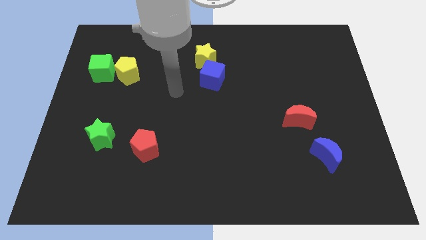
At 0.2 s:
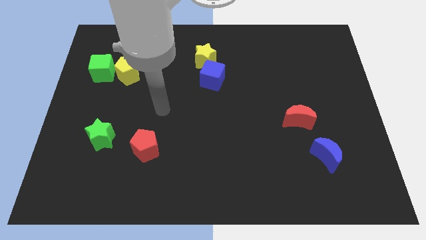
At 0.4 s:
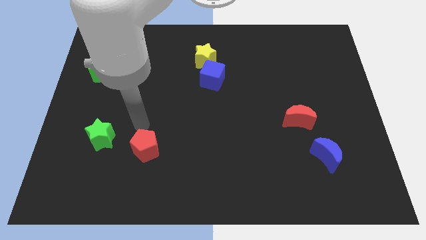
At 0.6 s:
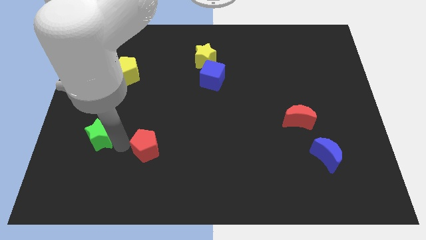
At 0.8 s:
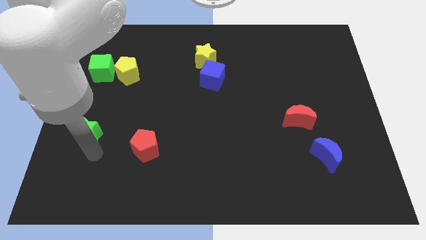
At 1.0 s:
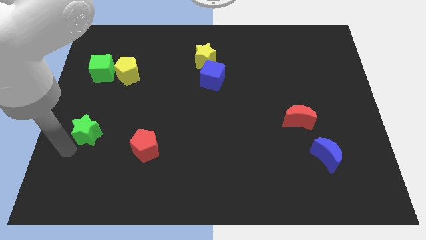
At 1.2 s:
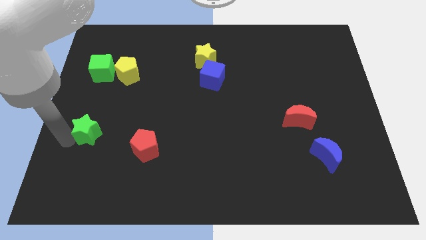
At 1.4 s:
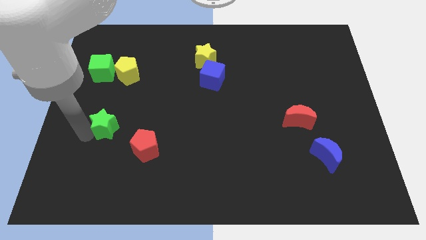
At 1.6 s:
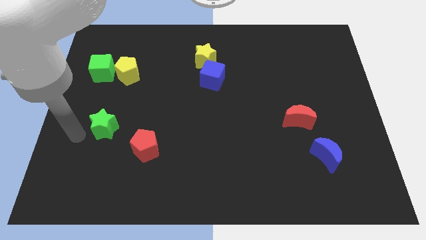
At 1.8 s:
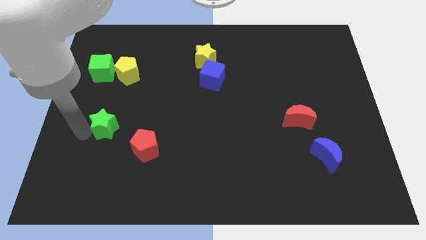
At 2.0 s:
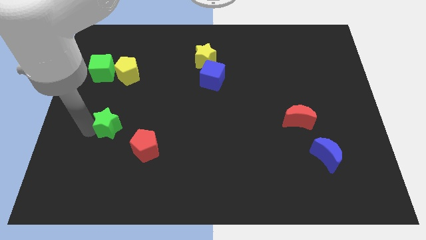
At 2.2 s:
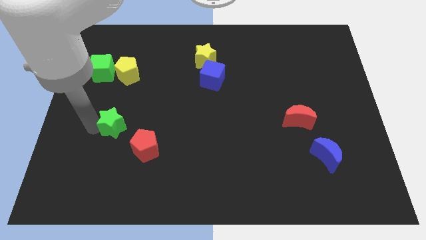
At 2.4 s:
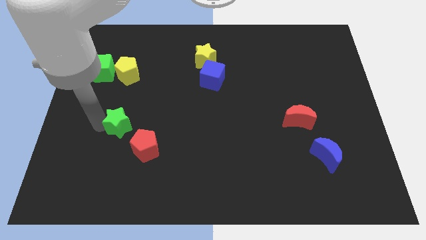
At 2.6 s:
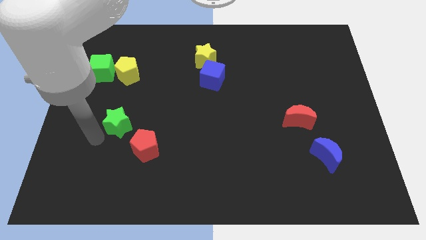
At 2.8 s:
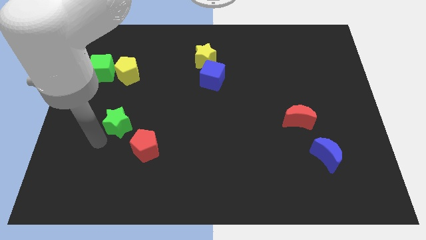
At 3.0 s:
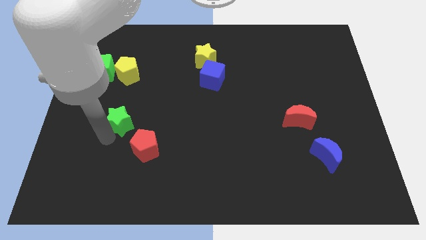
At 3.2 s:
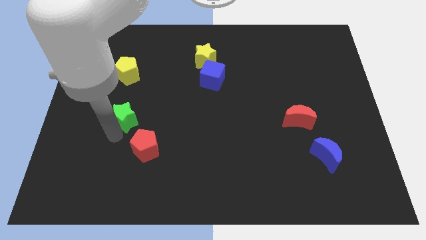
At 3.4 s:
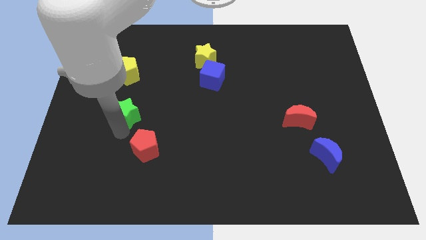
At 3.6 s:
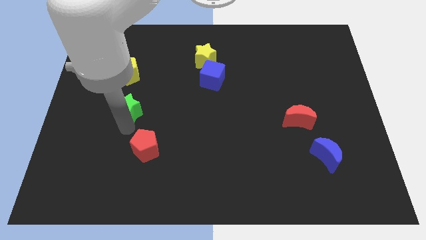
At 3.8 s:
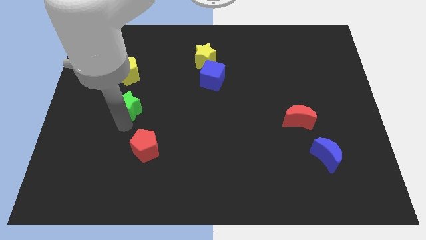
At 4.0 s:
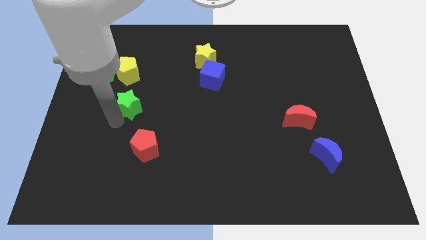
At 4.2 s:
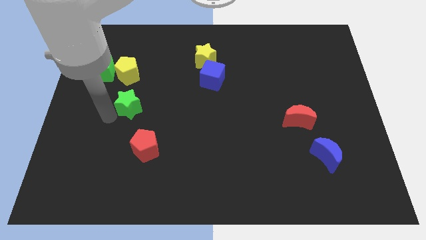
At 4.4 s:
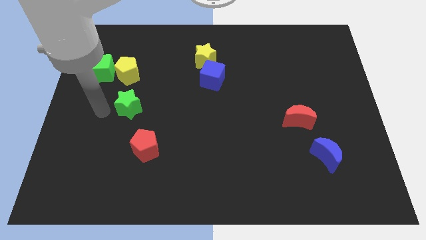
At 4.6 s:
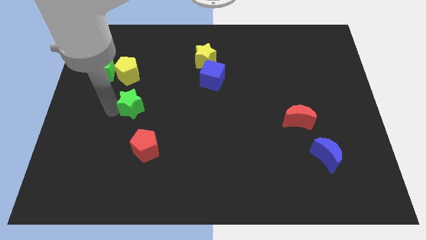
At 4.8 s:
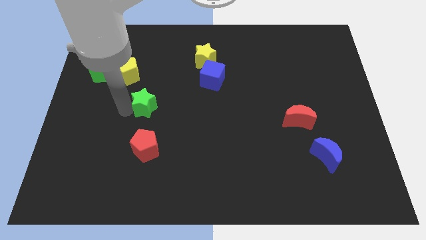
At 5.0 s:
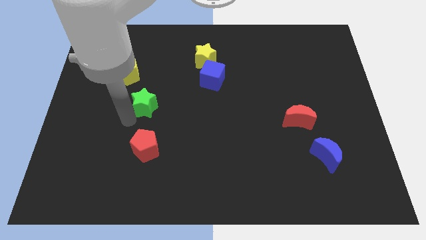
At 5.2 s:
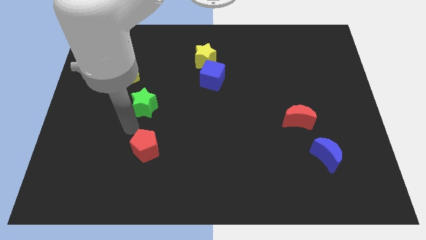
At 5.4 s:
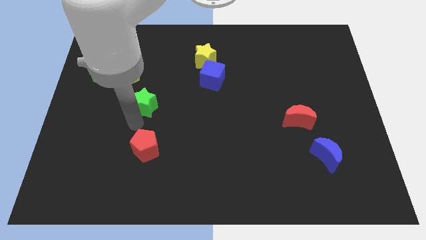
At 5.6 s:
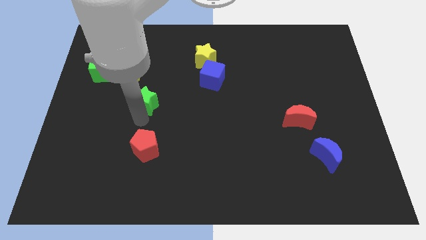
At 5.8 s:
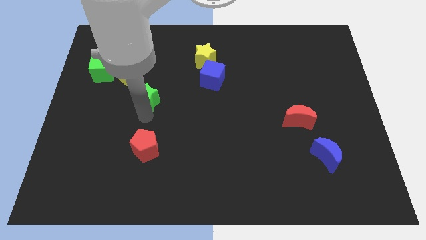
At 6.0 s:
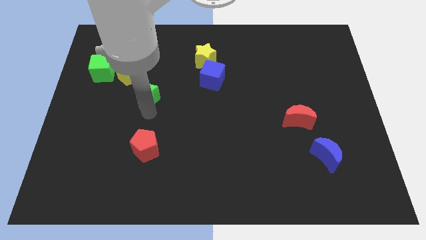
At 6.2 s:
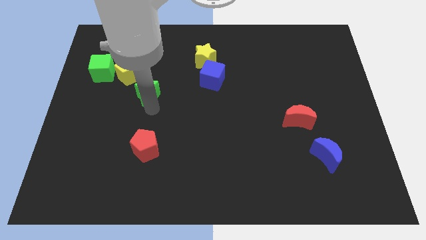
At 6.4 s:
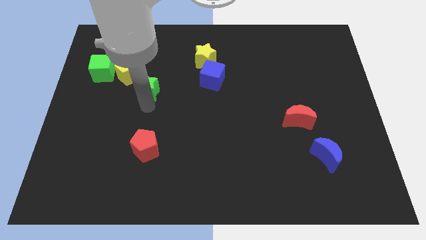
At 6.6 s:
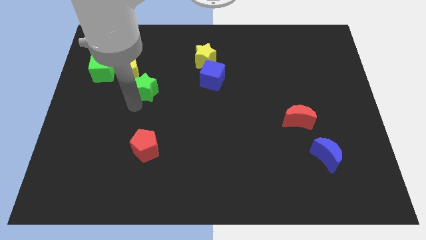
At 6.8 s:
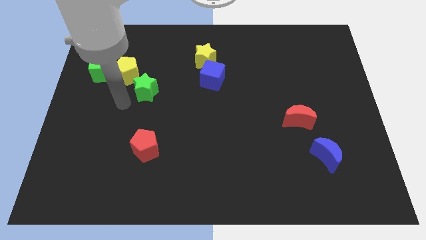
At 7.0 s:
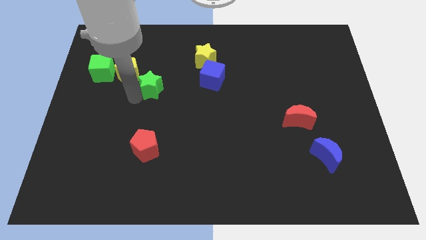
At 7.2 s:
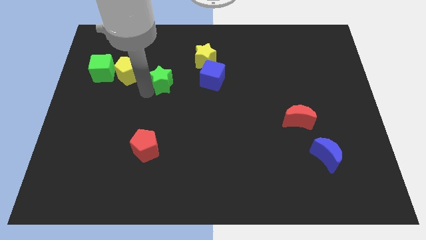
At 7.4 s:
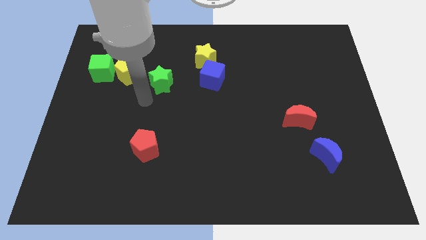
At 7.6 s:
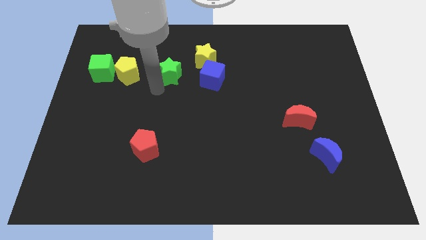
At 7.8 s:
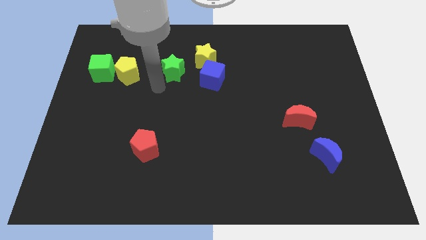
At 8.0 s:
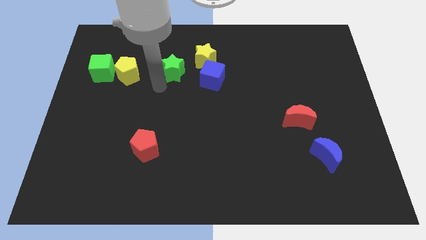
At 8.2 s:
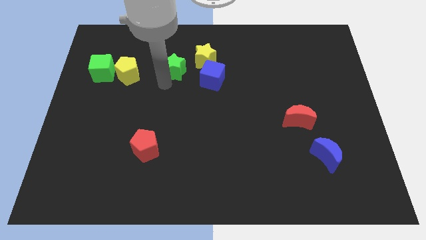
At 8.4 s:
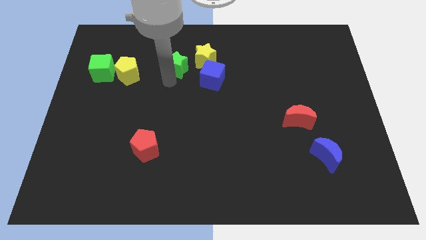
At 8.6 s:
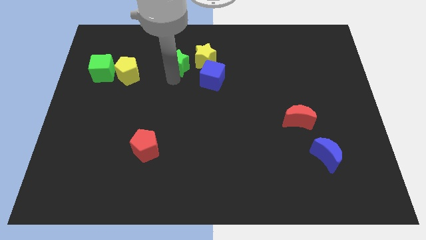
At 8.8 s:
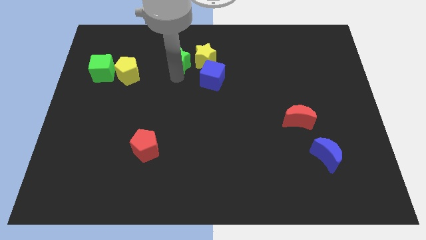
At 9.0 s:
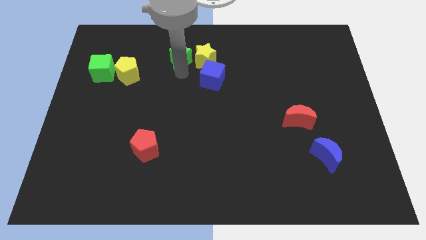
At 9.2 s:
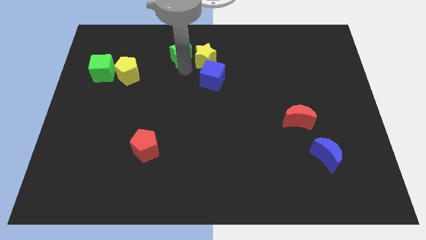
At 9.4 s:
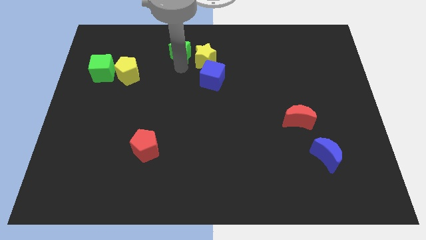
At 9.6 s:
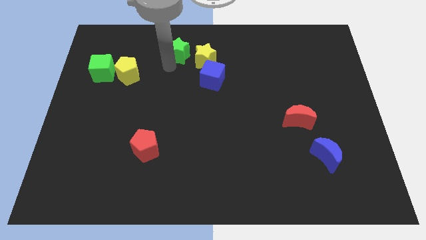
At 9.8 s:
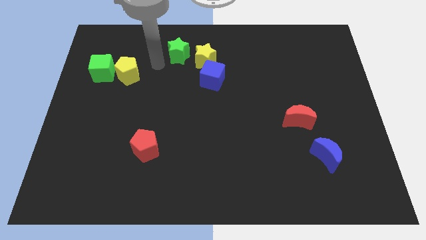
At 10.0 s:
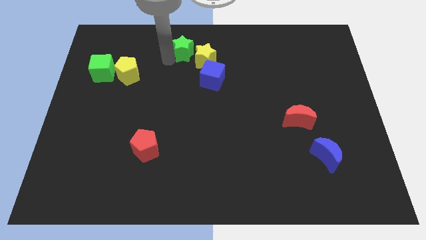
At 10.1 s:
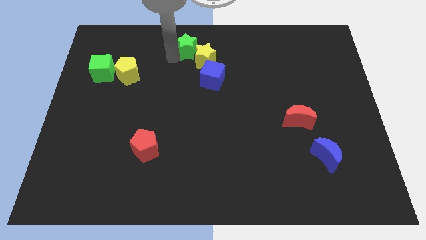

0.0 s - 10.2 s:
put the green star to the top

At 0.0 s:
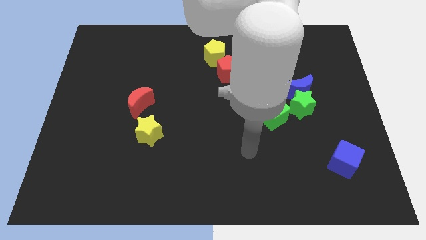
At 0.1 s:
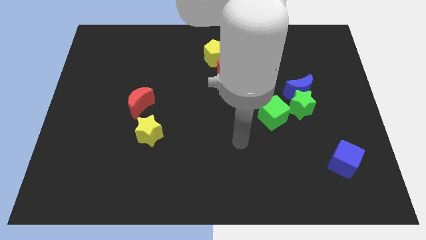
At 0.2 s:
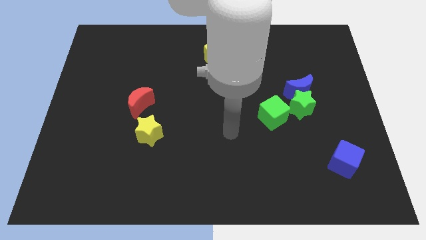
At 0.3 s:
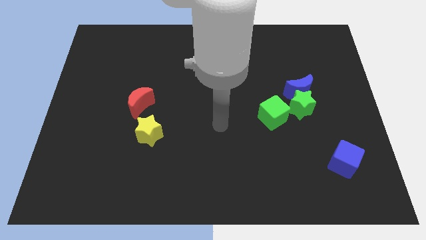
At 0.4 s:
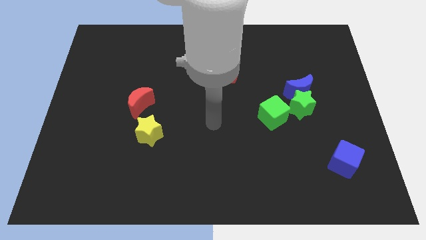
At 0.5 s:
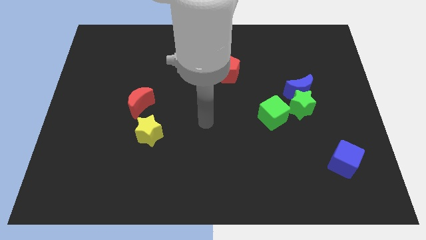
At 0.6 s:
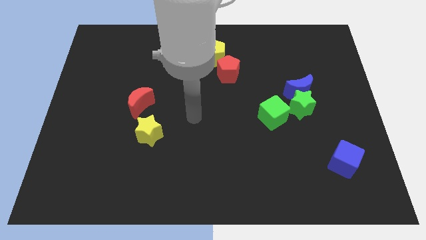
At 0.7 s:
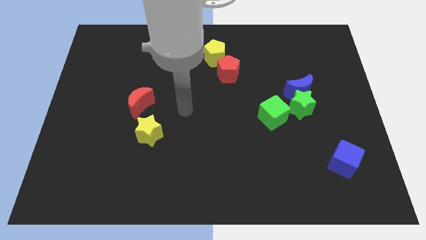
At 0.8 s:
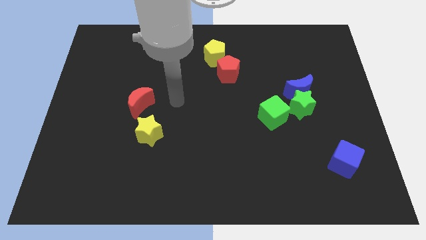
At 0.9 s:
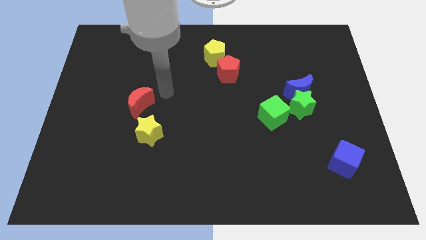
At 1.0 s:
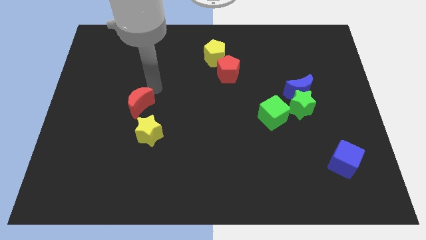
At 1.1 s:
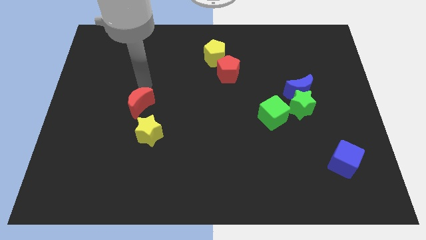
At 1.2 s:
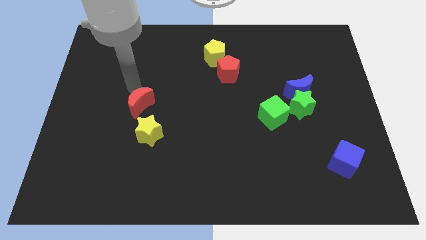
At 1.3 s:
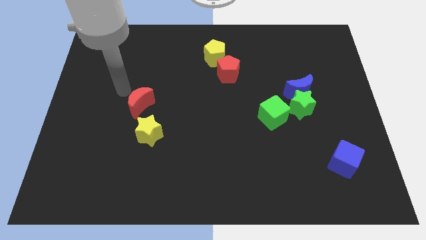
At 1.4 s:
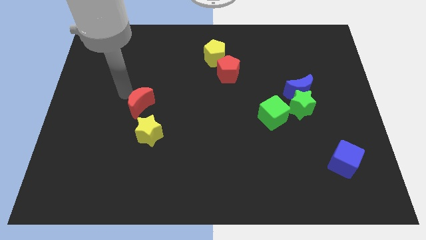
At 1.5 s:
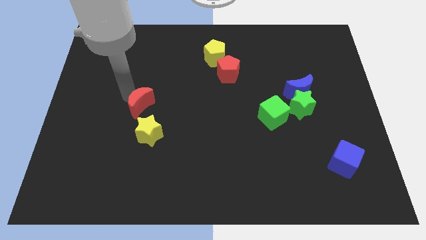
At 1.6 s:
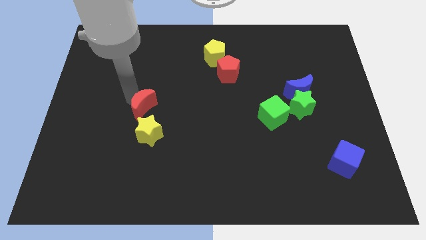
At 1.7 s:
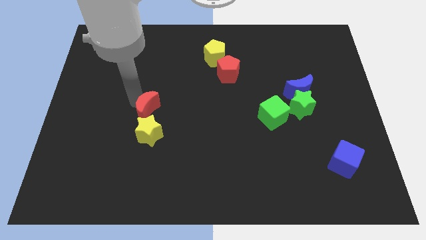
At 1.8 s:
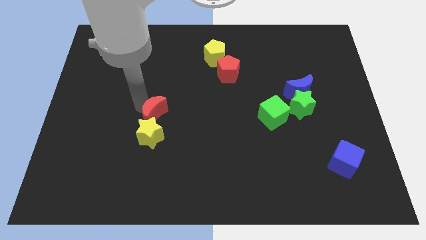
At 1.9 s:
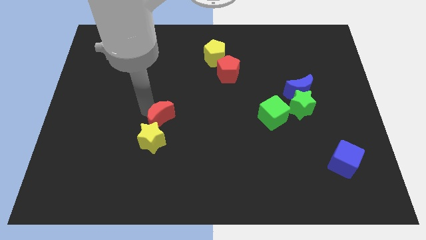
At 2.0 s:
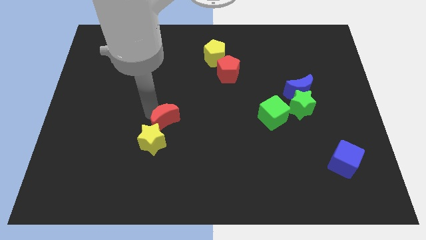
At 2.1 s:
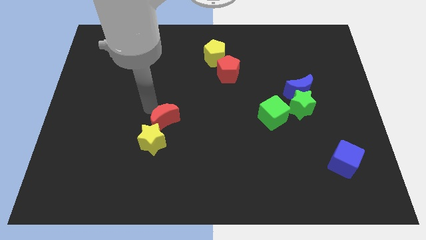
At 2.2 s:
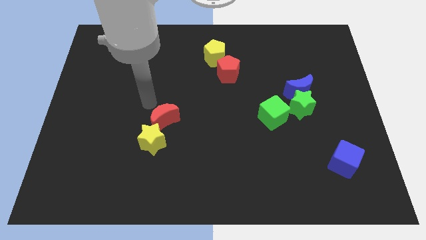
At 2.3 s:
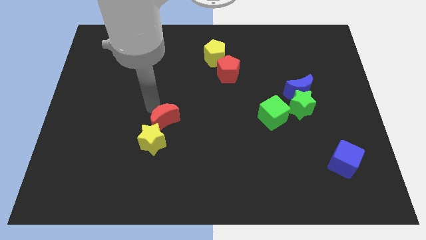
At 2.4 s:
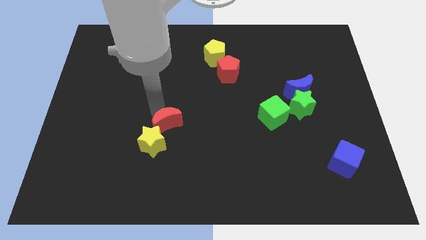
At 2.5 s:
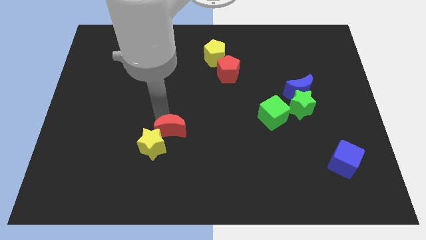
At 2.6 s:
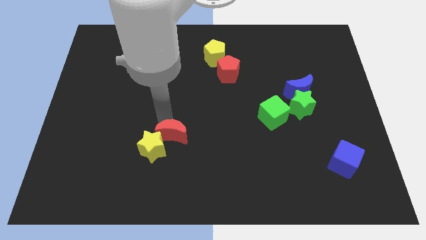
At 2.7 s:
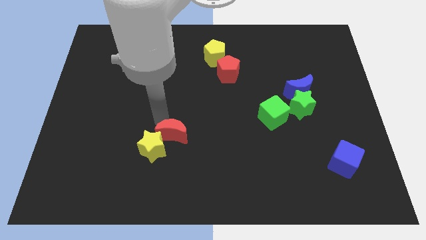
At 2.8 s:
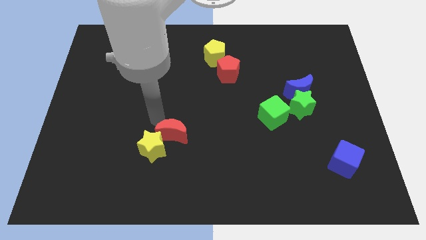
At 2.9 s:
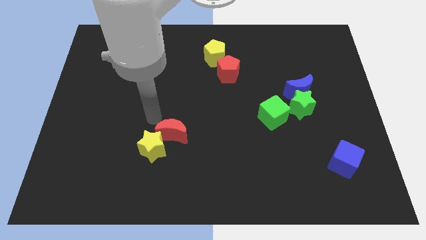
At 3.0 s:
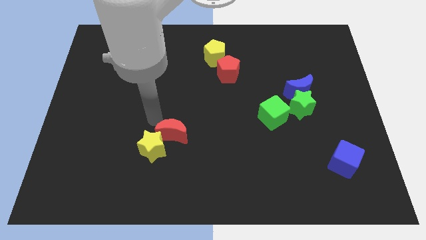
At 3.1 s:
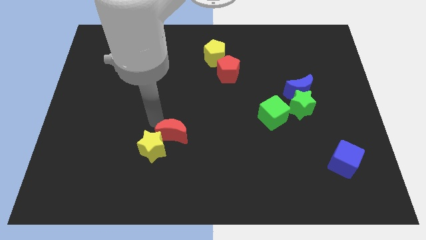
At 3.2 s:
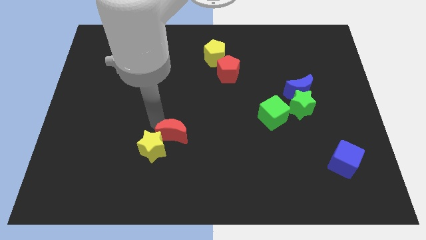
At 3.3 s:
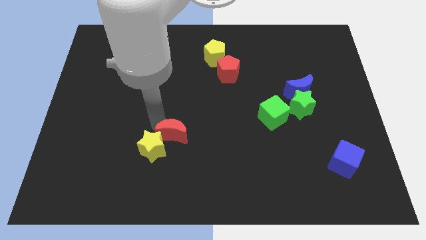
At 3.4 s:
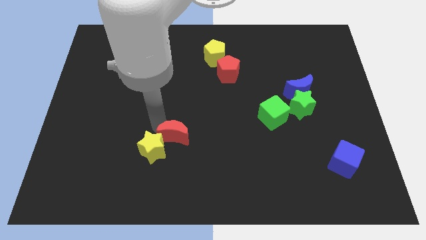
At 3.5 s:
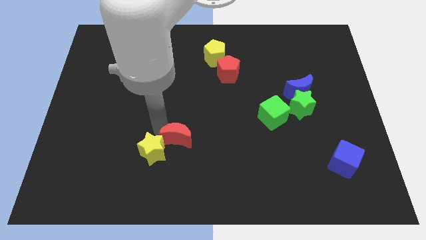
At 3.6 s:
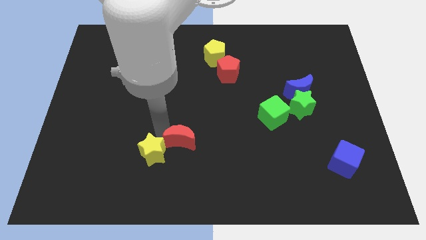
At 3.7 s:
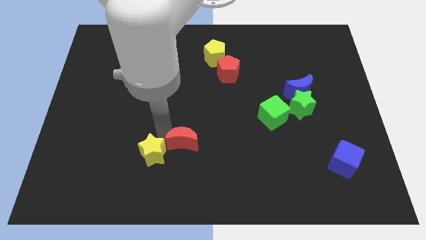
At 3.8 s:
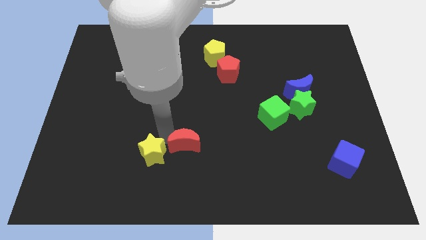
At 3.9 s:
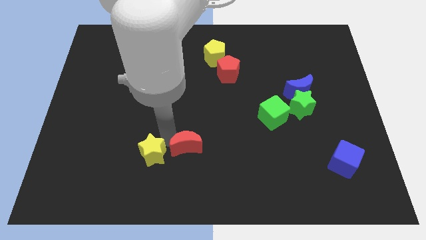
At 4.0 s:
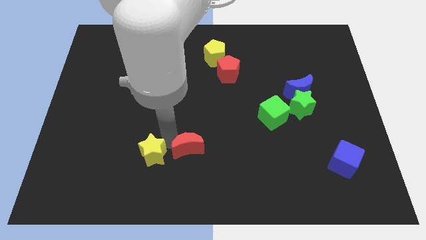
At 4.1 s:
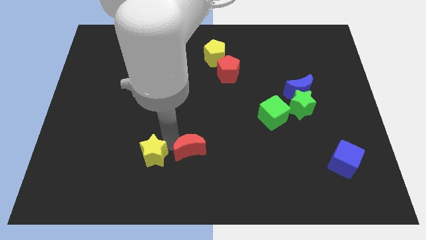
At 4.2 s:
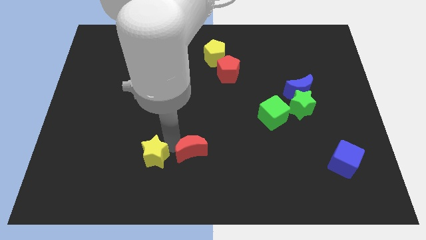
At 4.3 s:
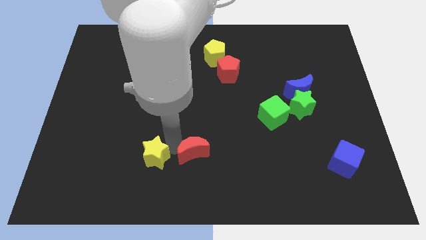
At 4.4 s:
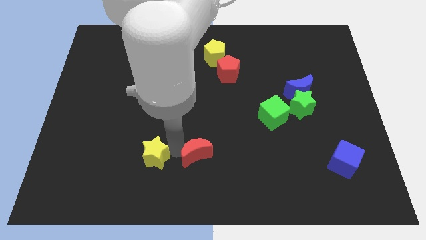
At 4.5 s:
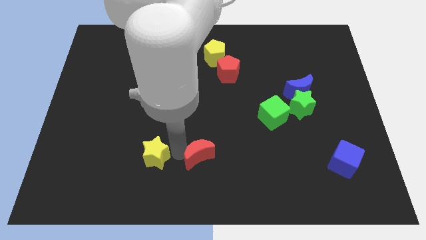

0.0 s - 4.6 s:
put the red moon to the bottom
